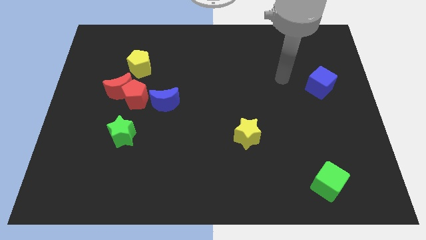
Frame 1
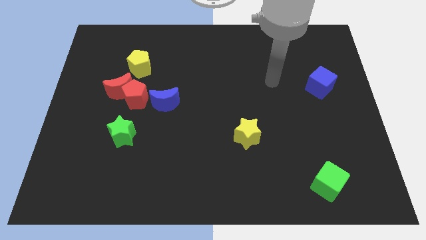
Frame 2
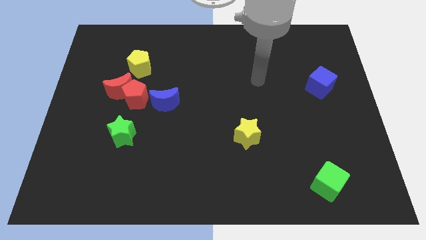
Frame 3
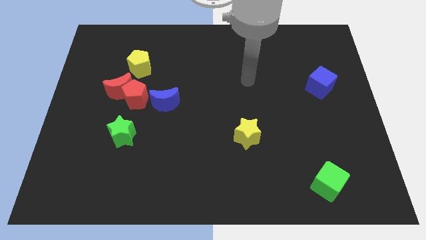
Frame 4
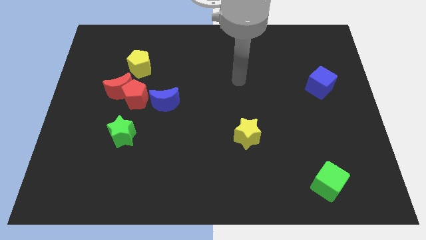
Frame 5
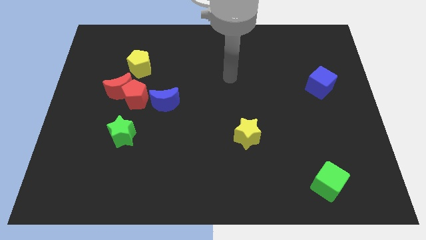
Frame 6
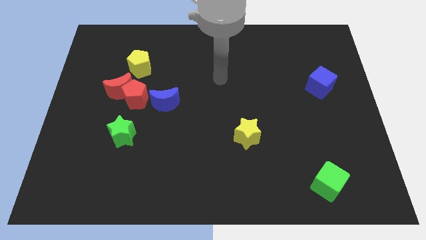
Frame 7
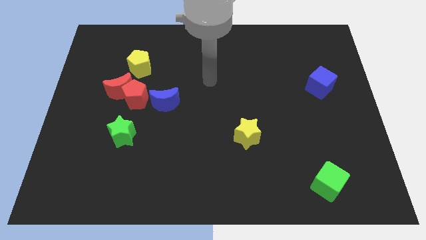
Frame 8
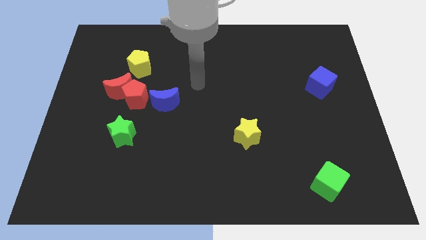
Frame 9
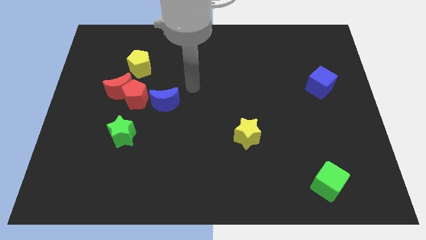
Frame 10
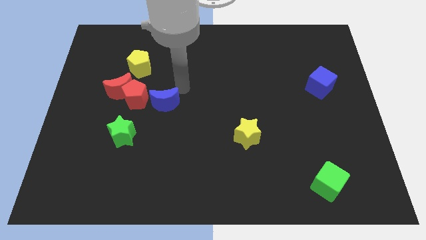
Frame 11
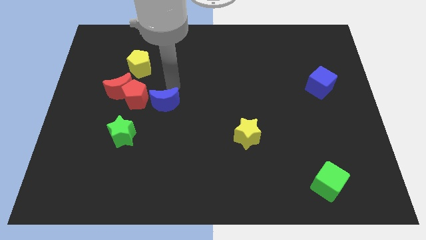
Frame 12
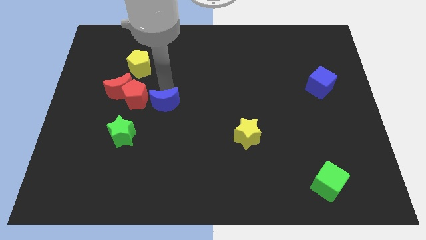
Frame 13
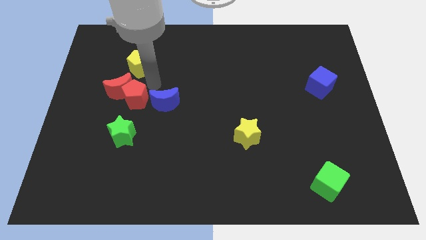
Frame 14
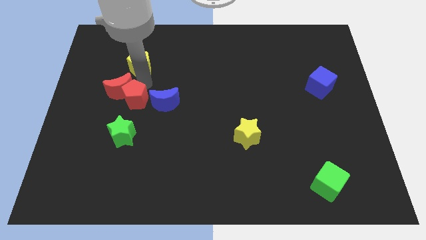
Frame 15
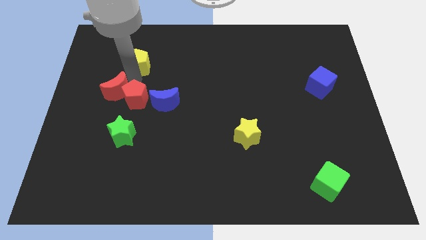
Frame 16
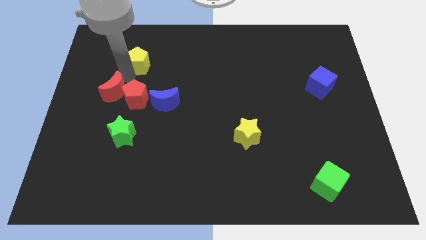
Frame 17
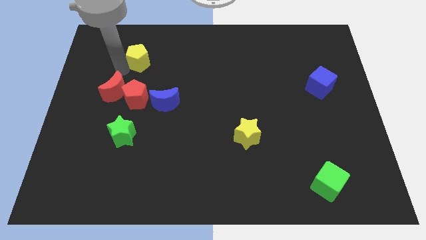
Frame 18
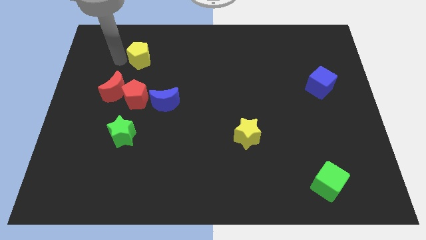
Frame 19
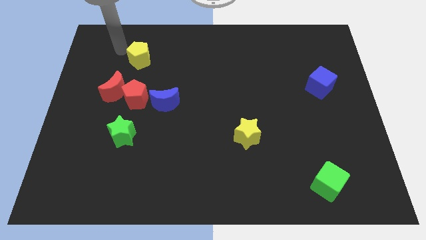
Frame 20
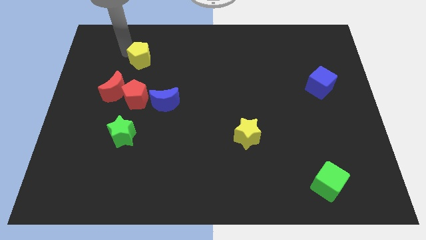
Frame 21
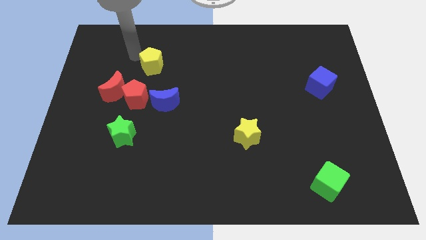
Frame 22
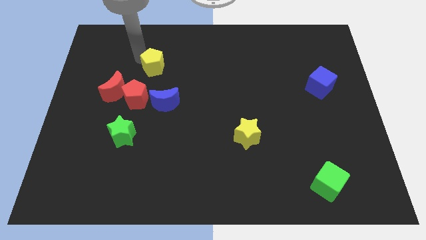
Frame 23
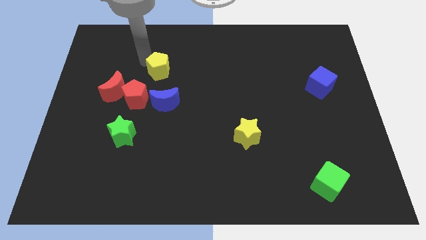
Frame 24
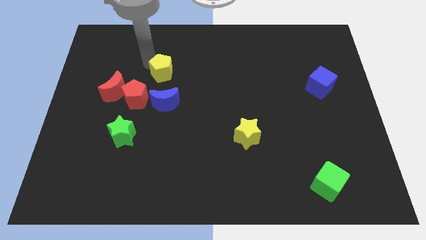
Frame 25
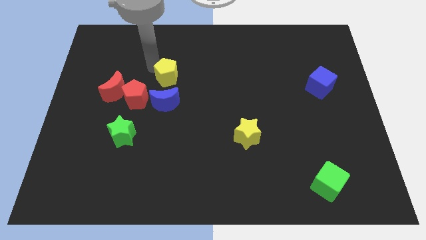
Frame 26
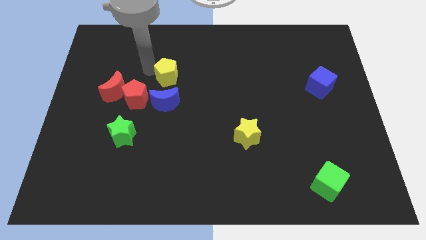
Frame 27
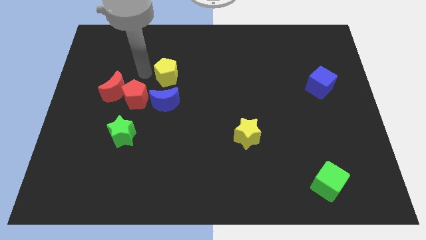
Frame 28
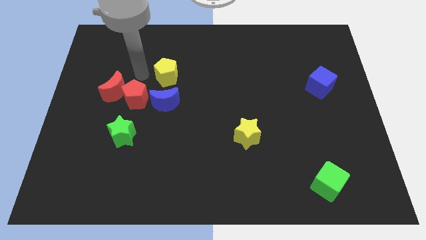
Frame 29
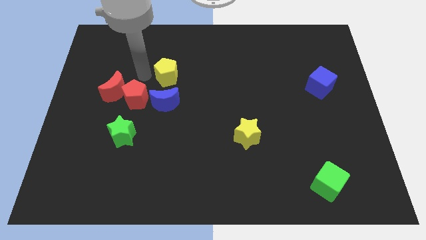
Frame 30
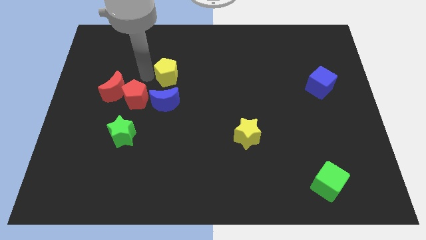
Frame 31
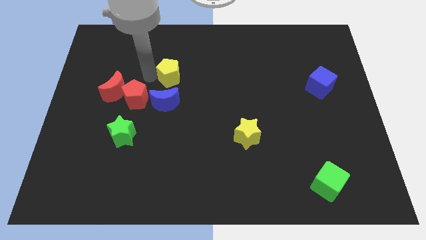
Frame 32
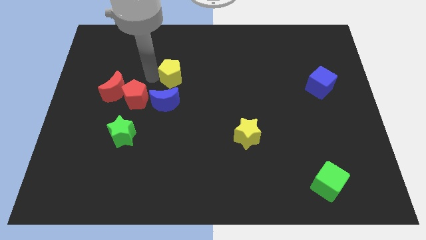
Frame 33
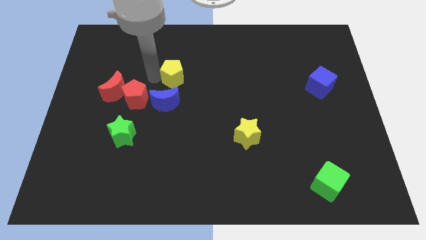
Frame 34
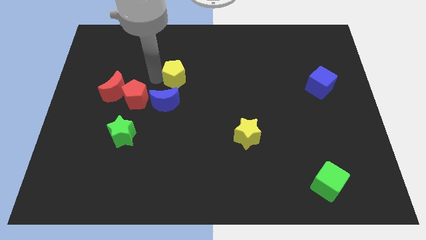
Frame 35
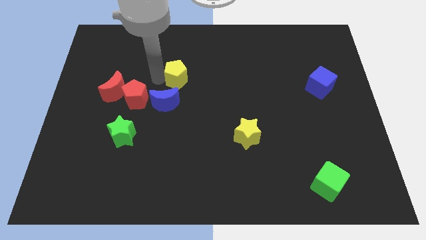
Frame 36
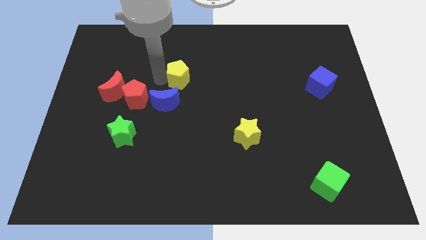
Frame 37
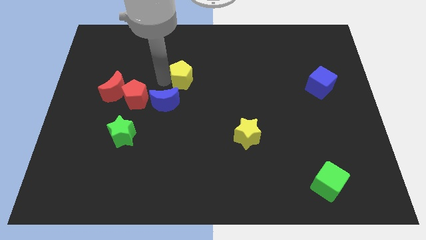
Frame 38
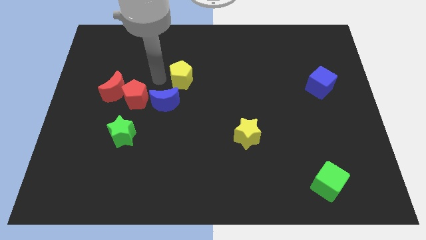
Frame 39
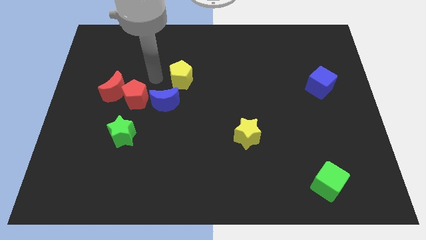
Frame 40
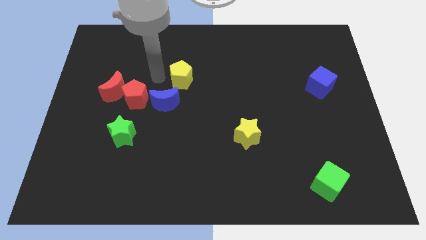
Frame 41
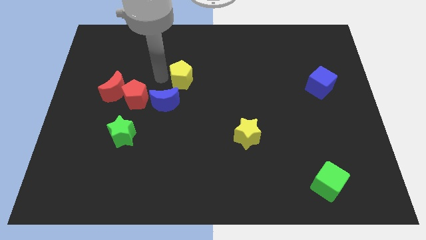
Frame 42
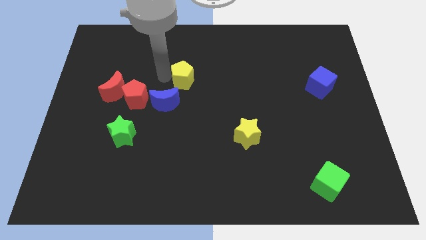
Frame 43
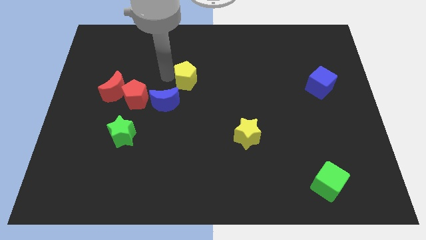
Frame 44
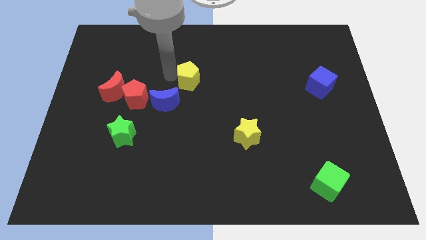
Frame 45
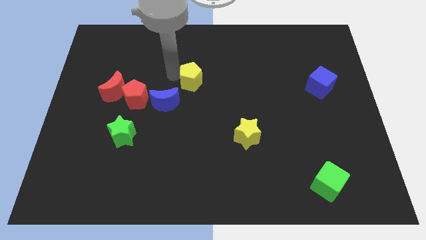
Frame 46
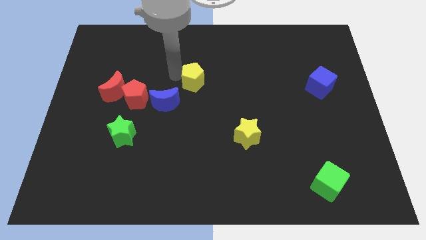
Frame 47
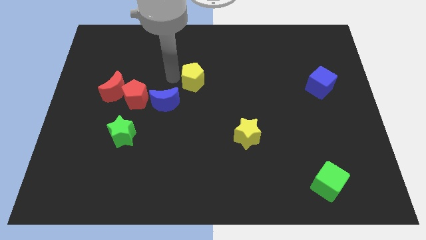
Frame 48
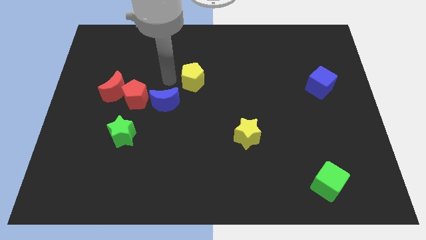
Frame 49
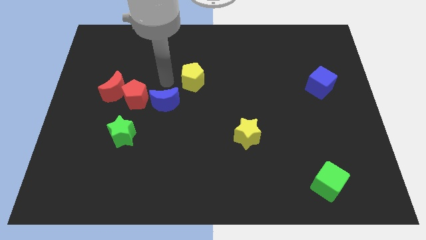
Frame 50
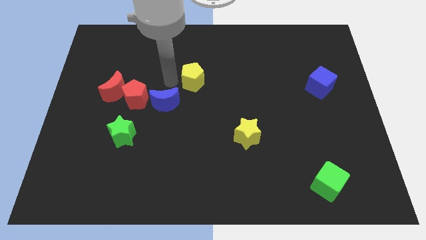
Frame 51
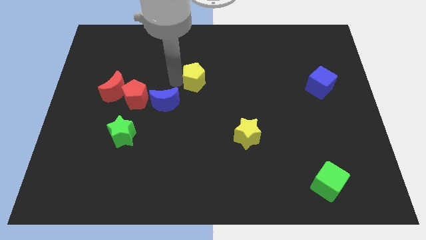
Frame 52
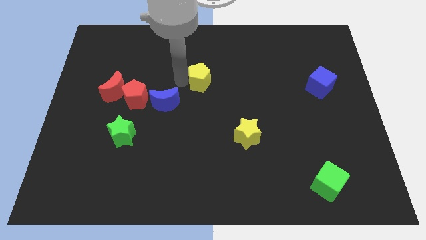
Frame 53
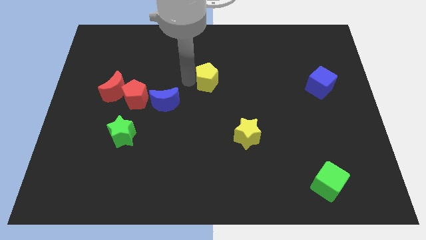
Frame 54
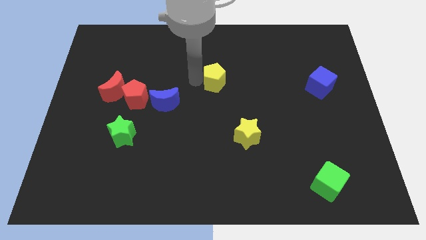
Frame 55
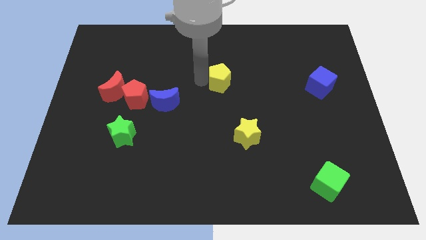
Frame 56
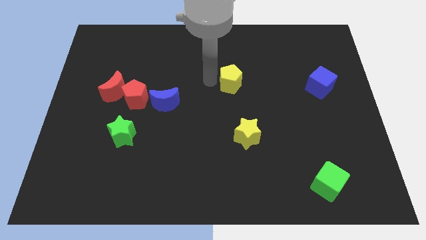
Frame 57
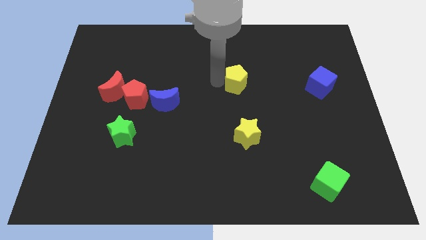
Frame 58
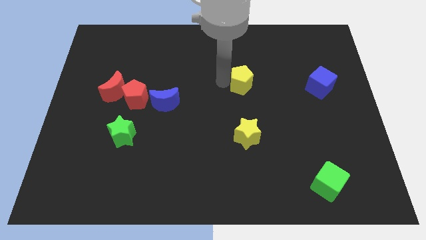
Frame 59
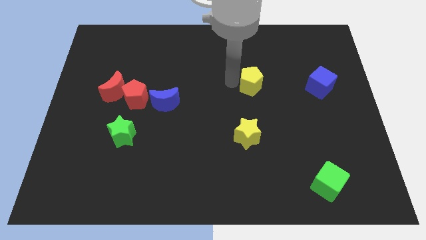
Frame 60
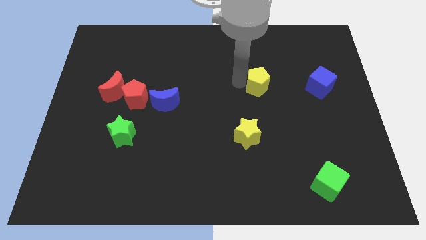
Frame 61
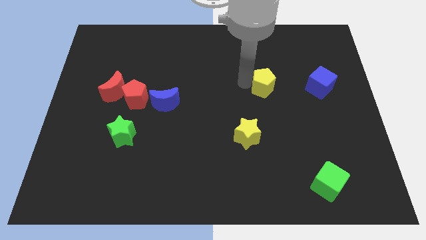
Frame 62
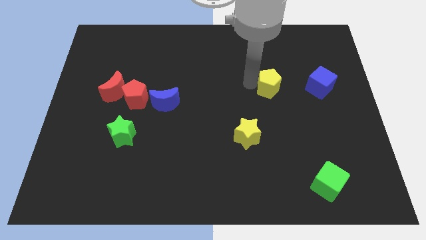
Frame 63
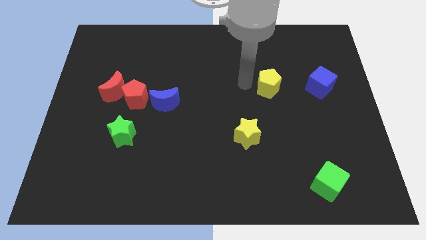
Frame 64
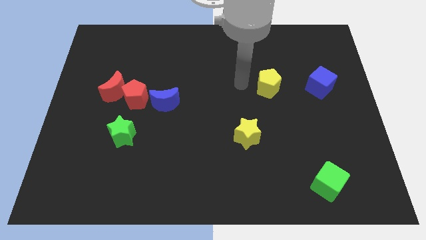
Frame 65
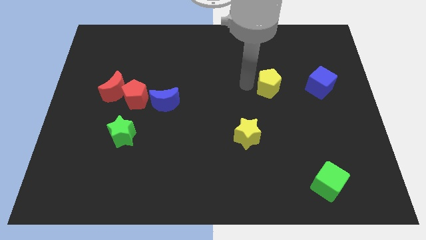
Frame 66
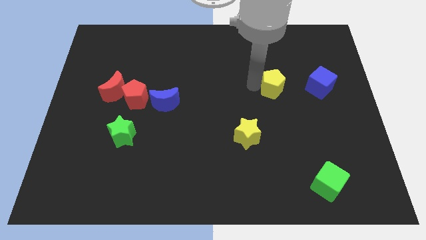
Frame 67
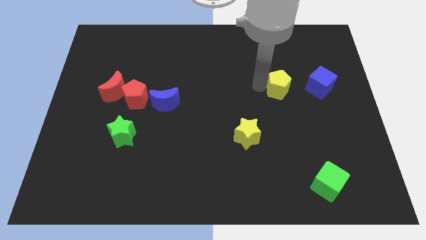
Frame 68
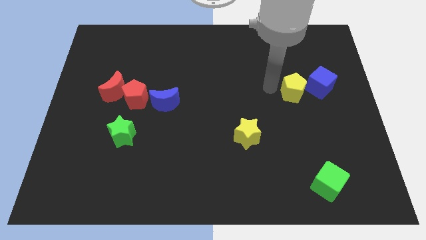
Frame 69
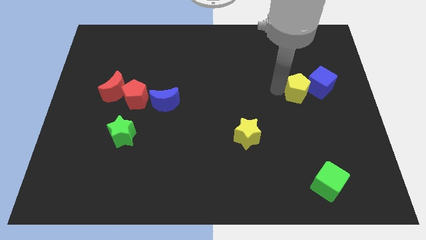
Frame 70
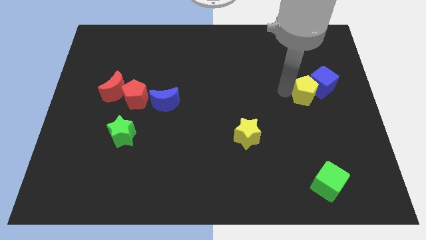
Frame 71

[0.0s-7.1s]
move the yellow pentagon next to the blue cube
